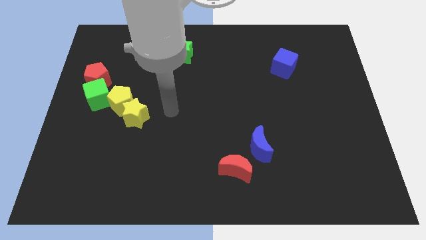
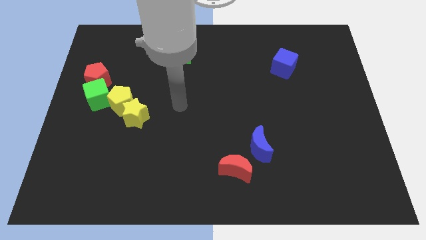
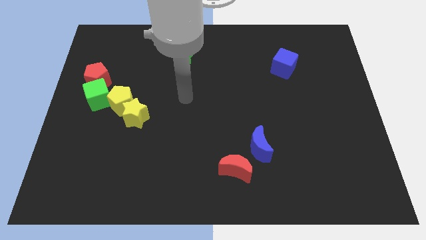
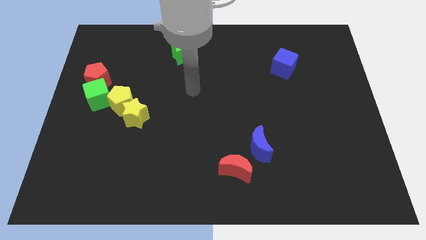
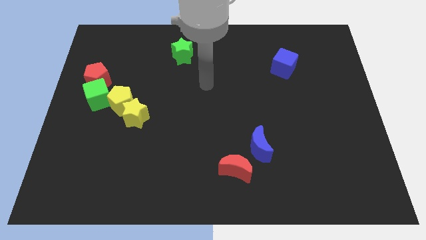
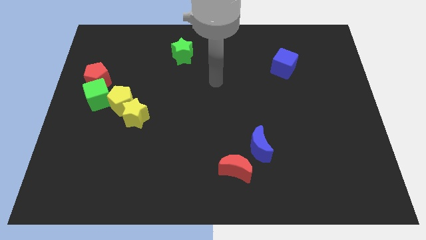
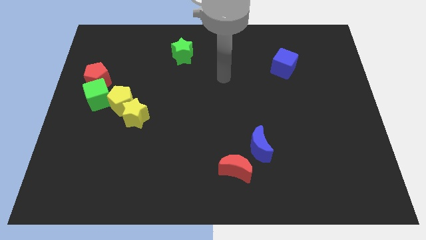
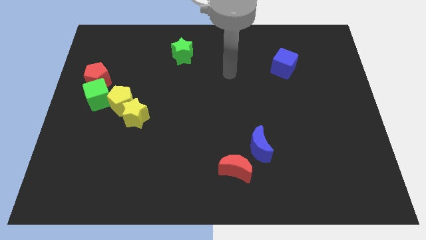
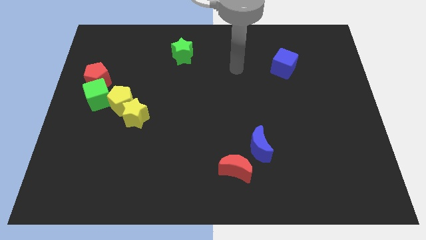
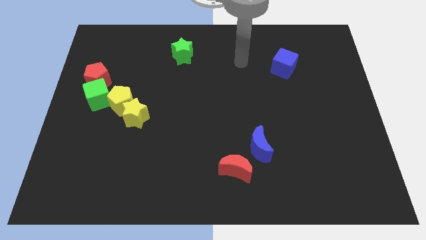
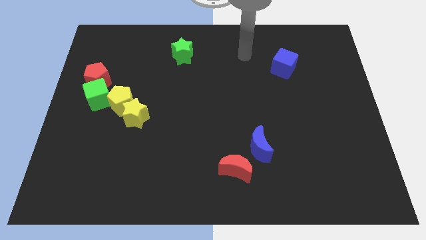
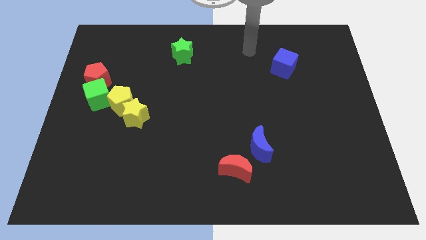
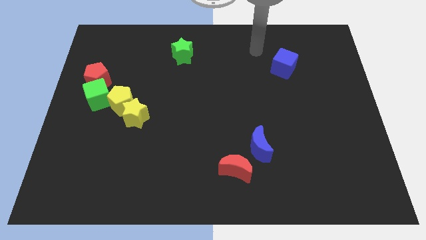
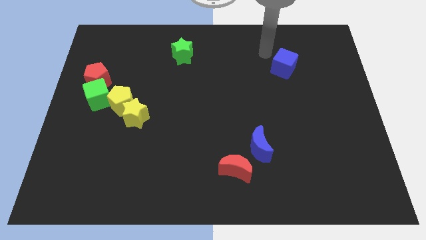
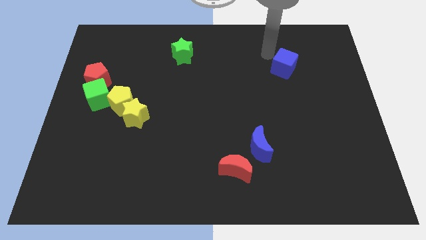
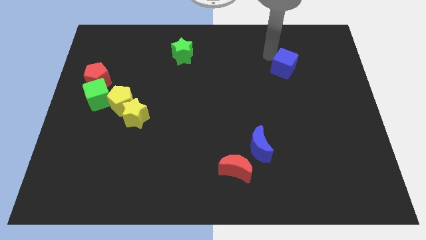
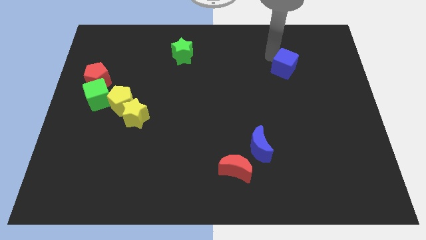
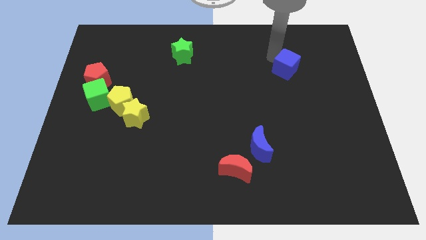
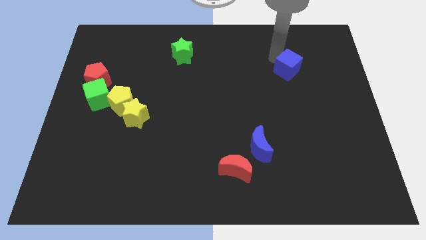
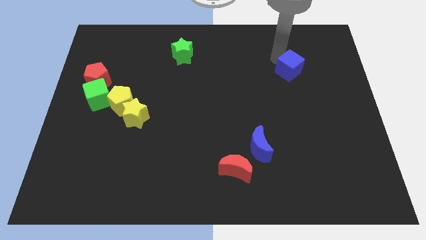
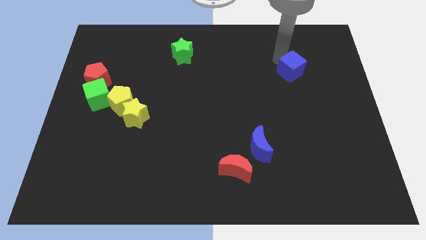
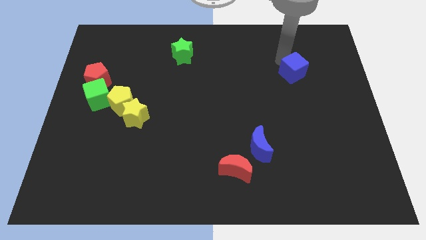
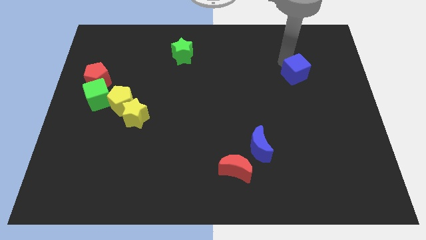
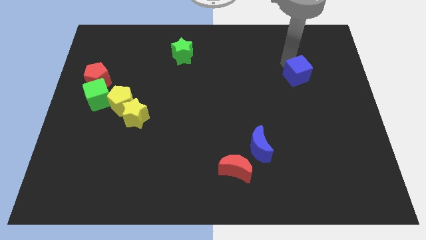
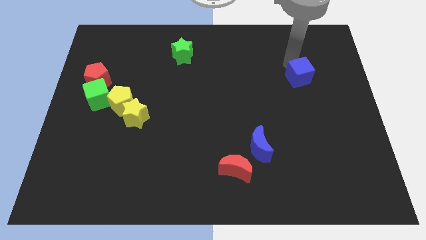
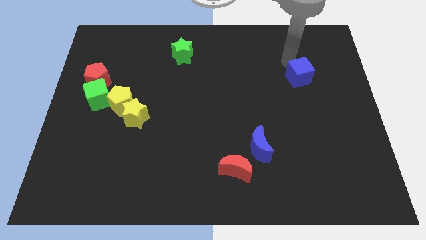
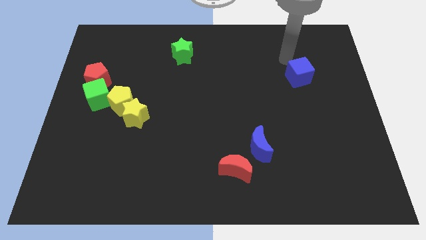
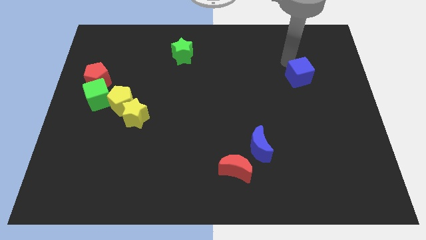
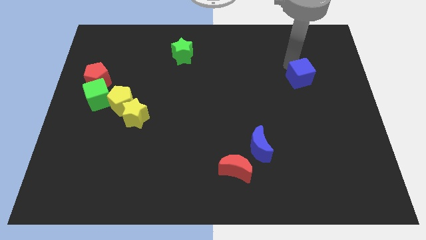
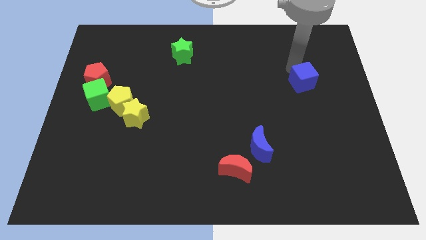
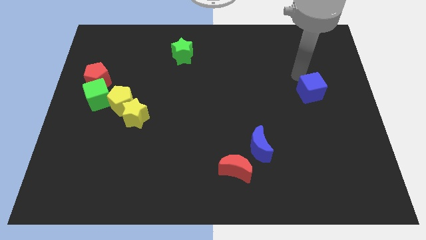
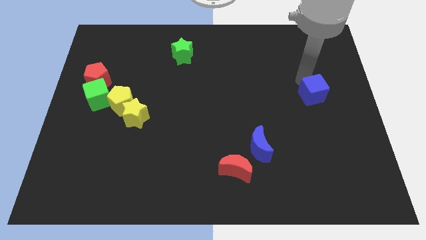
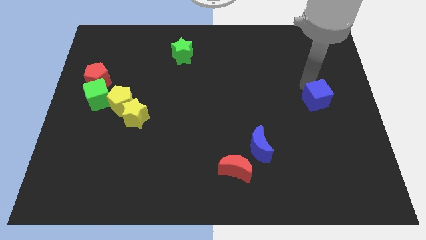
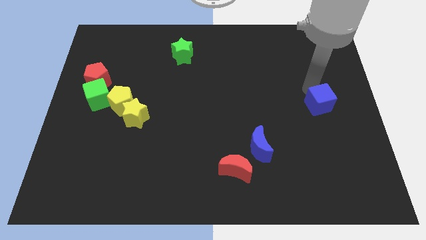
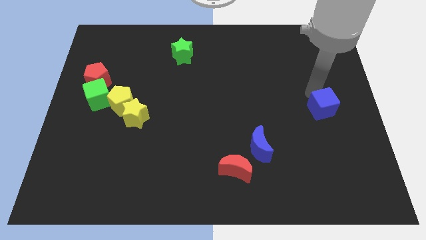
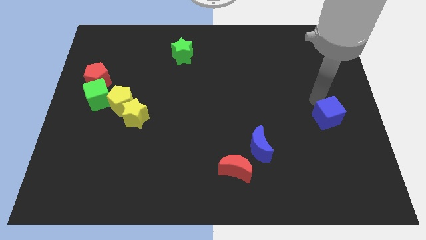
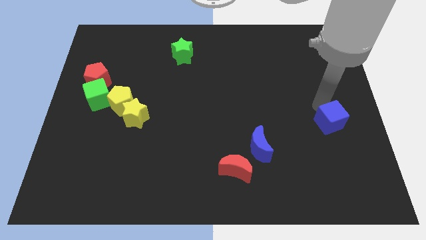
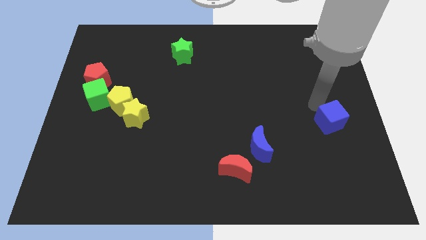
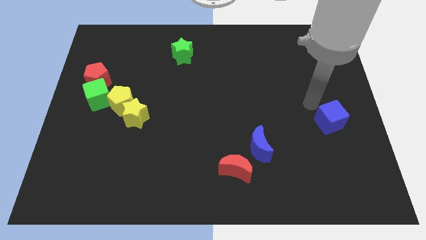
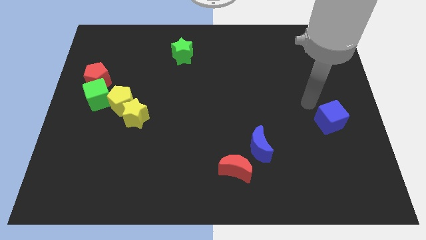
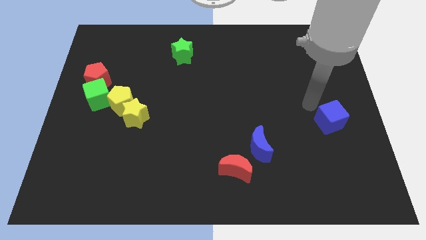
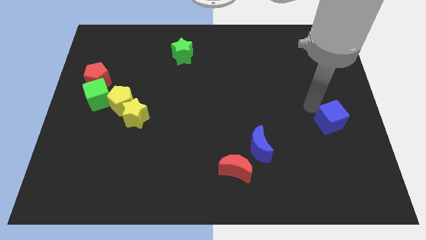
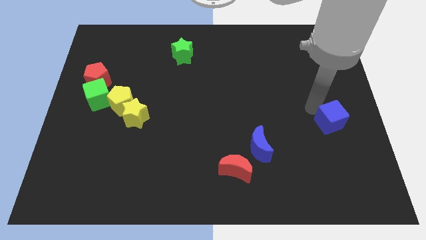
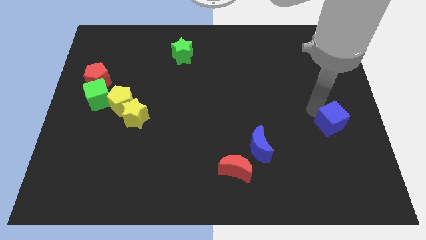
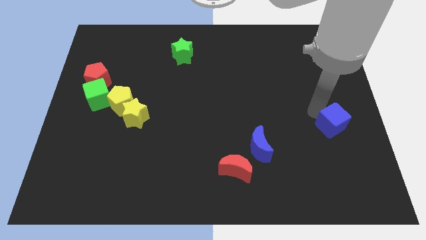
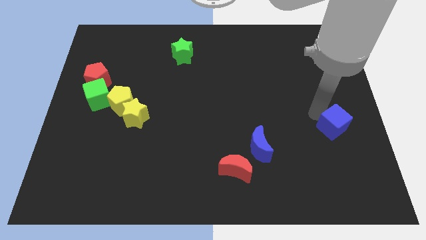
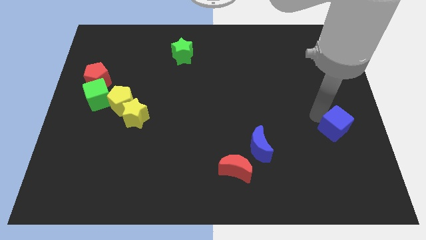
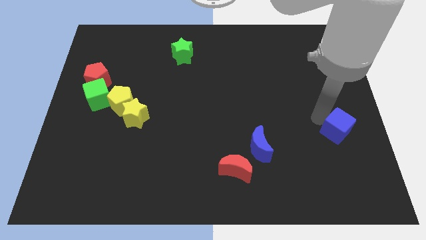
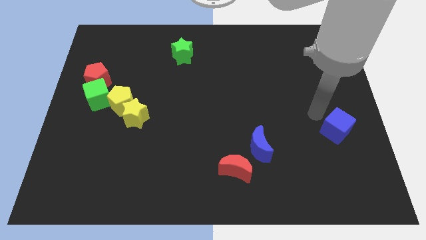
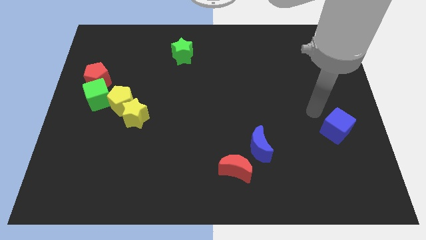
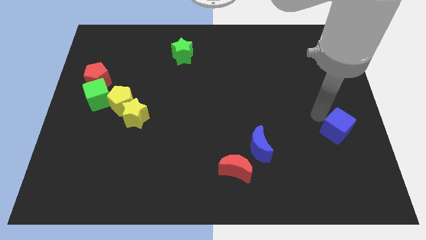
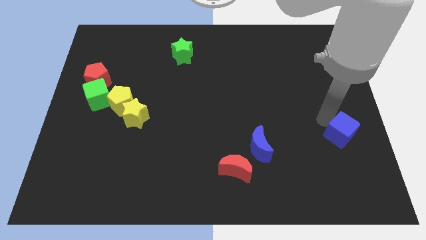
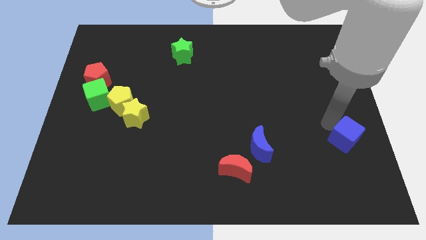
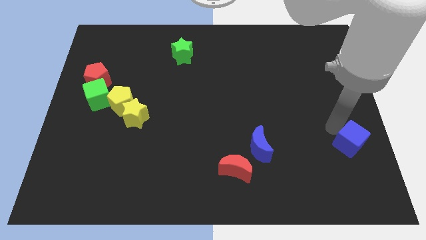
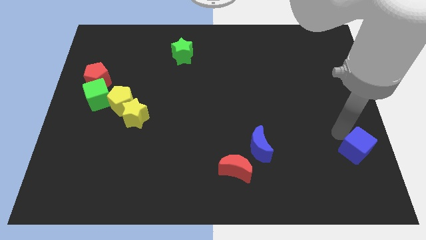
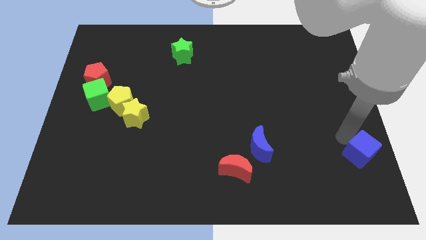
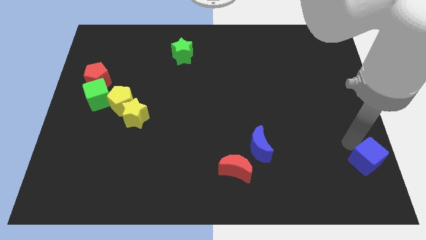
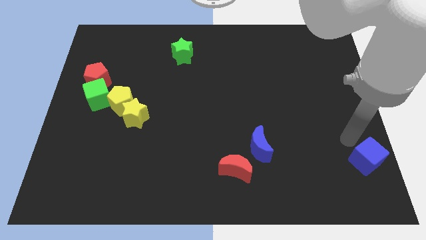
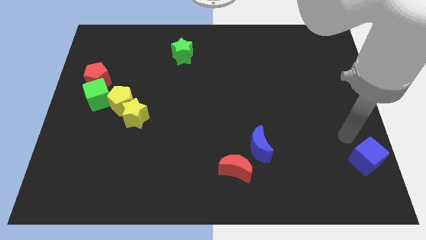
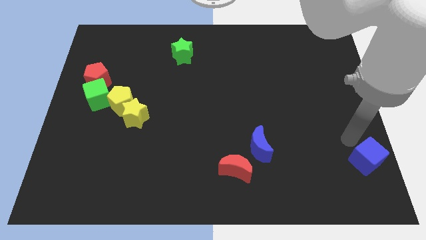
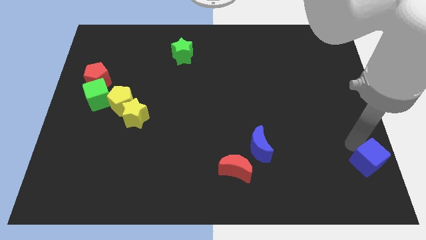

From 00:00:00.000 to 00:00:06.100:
move the blue cube to the bottom right corner

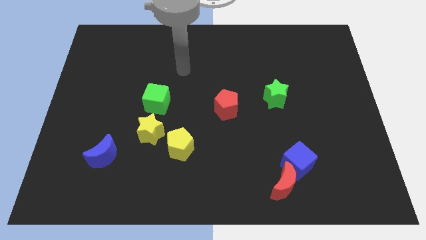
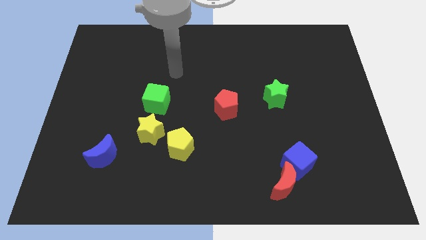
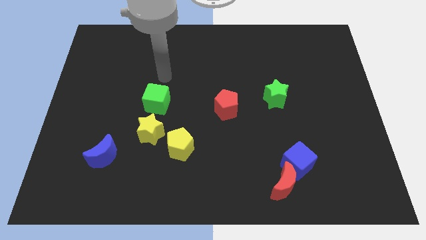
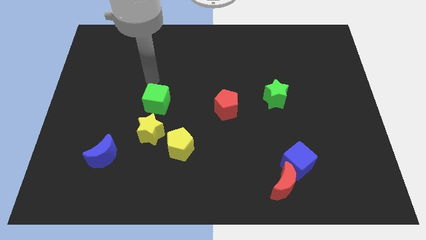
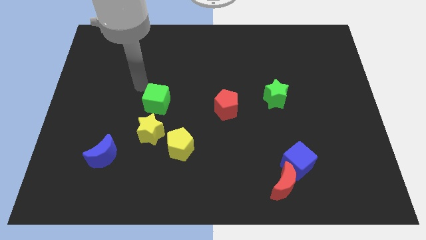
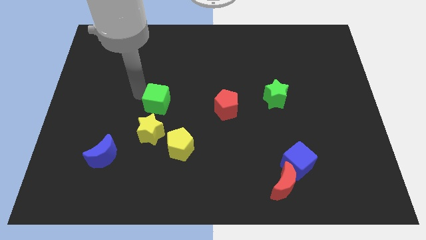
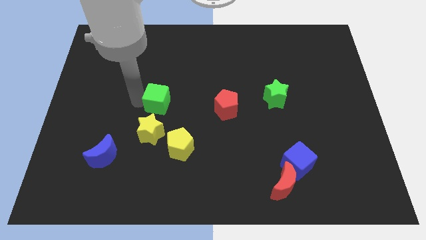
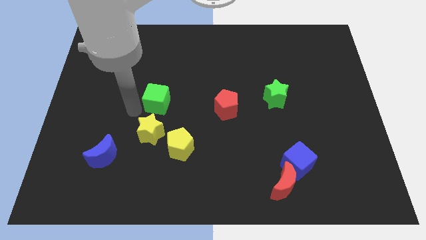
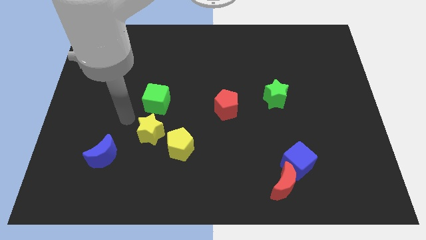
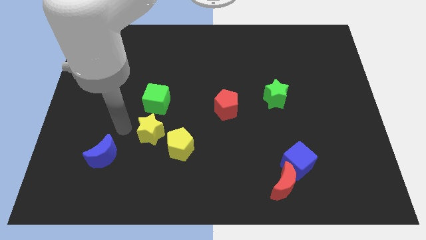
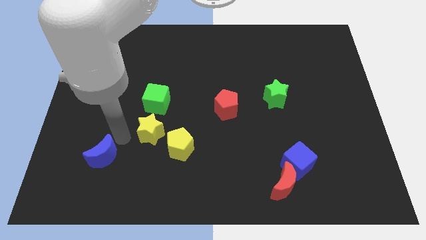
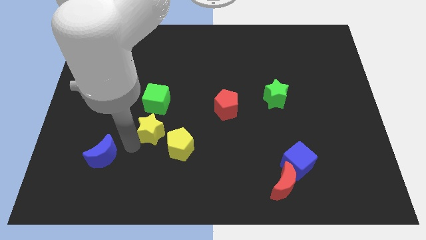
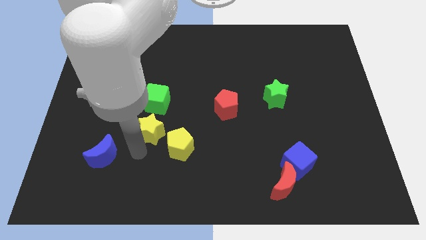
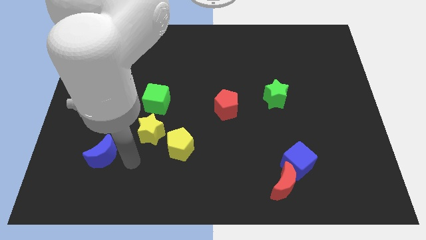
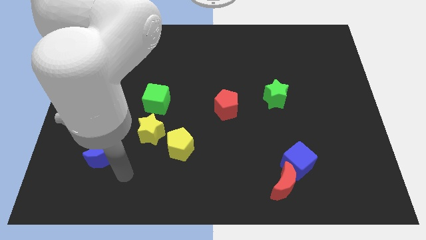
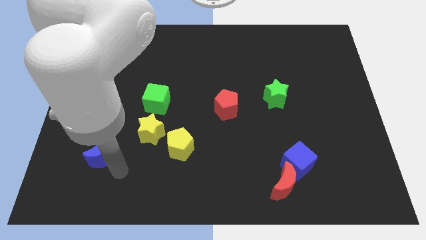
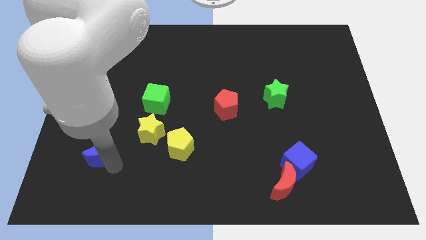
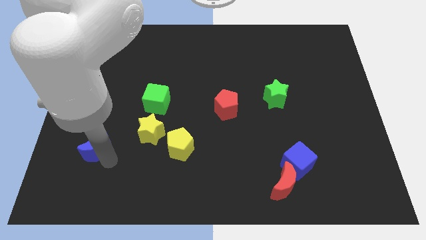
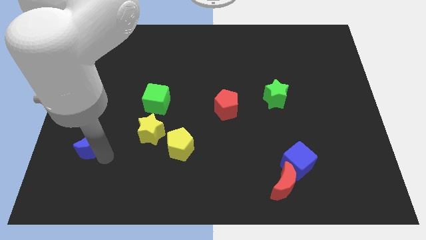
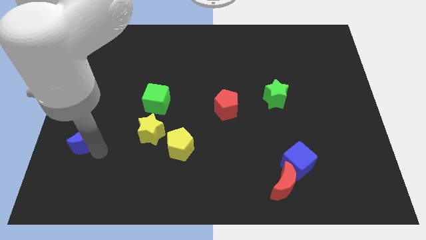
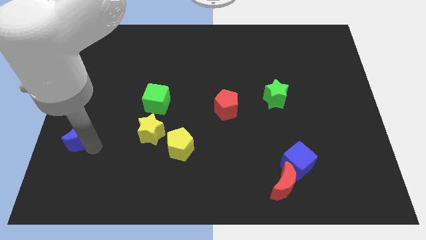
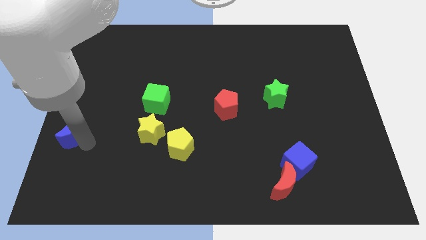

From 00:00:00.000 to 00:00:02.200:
push the blue moon to the left side
